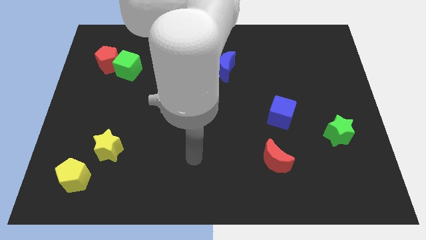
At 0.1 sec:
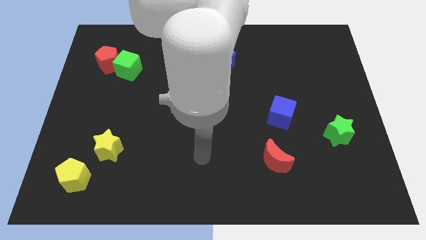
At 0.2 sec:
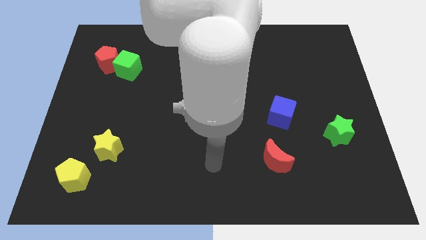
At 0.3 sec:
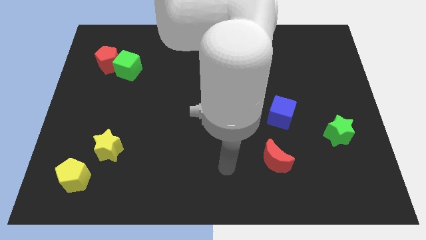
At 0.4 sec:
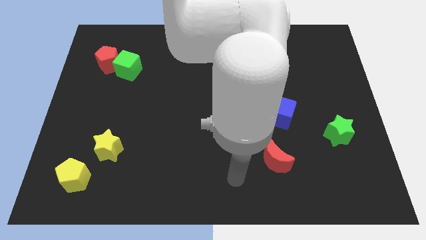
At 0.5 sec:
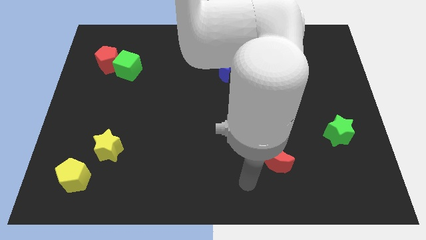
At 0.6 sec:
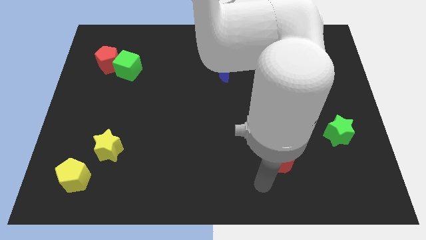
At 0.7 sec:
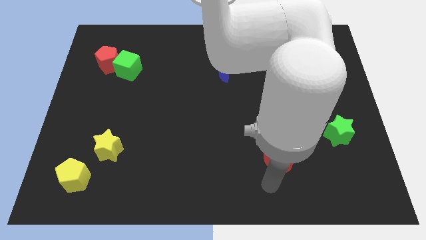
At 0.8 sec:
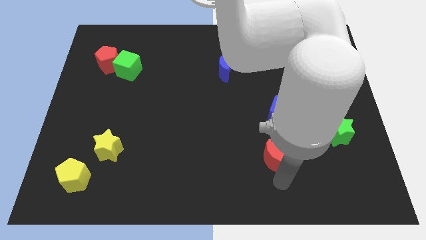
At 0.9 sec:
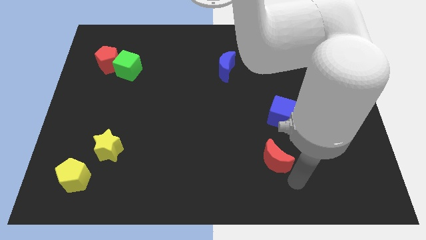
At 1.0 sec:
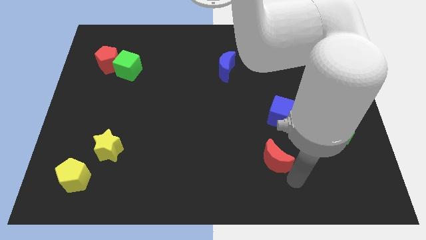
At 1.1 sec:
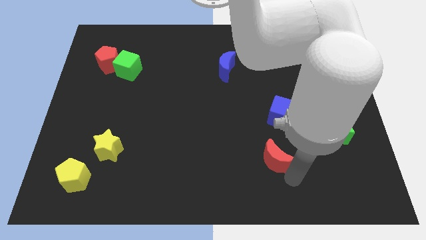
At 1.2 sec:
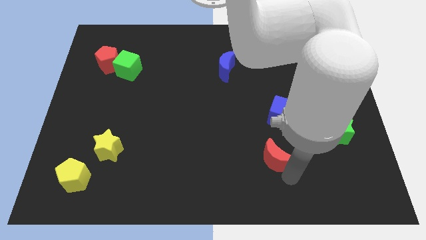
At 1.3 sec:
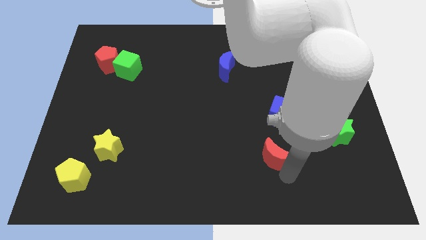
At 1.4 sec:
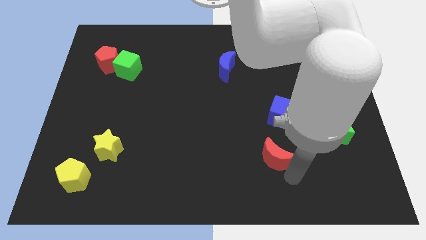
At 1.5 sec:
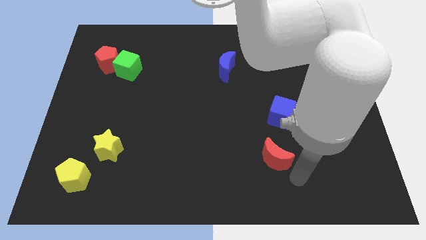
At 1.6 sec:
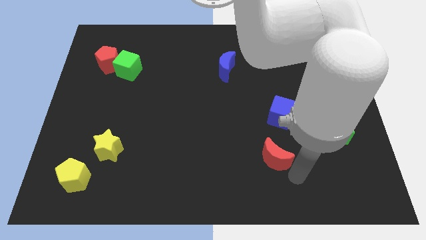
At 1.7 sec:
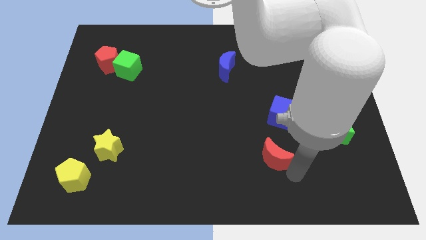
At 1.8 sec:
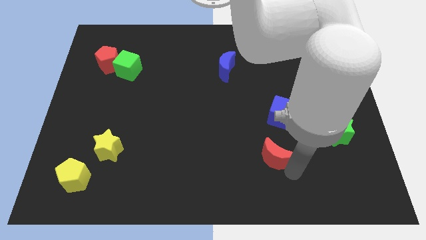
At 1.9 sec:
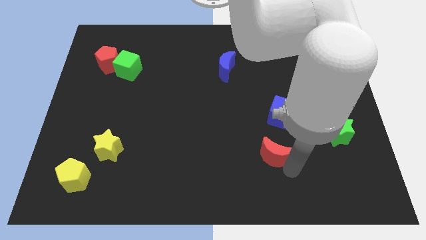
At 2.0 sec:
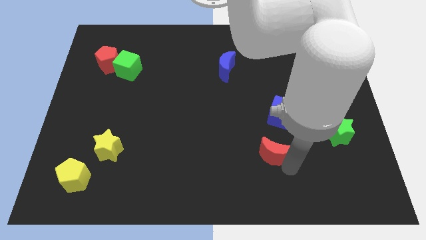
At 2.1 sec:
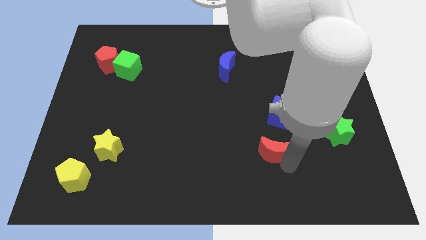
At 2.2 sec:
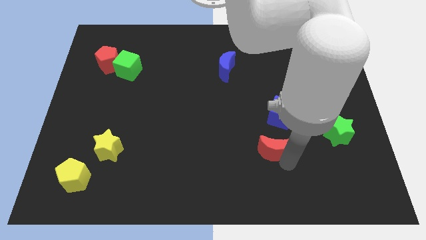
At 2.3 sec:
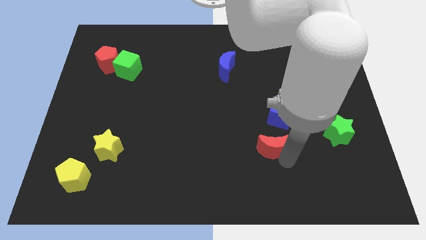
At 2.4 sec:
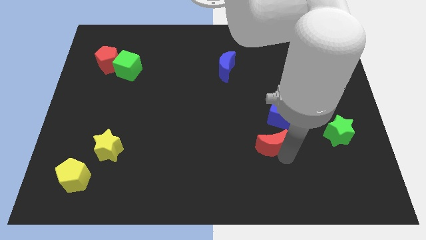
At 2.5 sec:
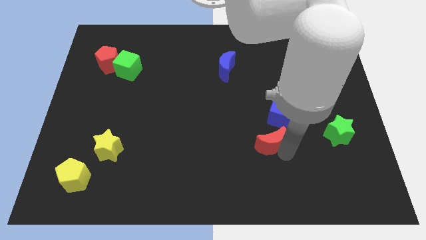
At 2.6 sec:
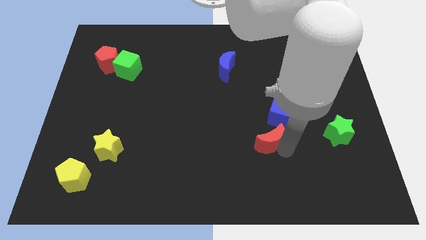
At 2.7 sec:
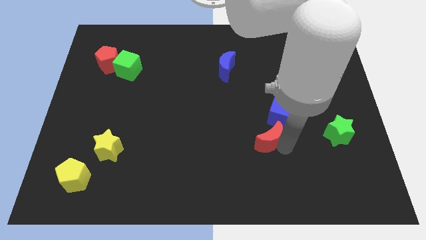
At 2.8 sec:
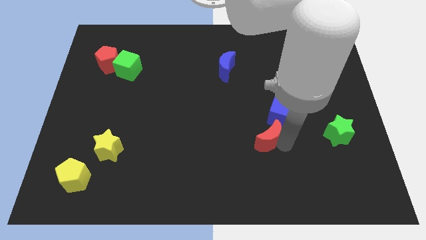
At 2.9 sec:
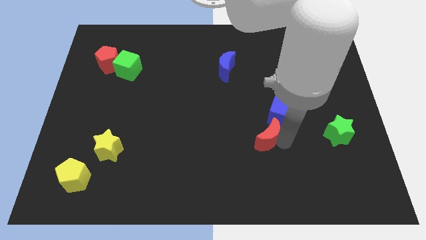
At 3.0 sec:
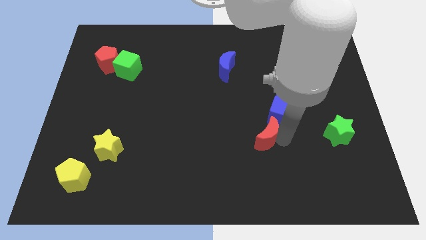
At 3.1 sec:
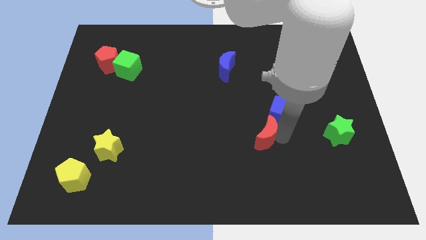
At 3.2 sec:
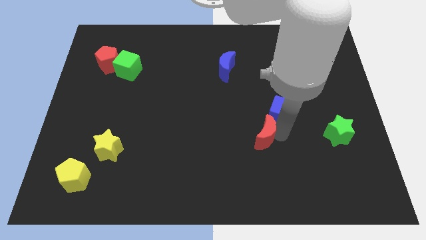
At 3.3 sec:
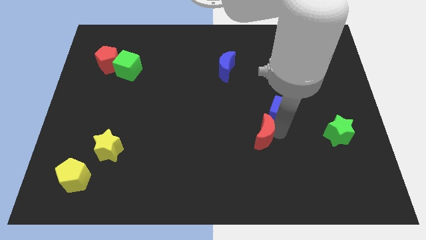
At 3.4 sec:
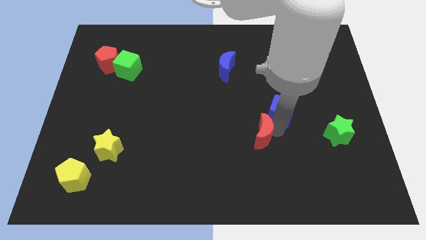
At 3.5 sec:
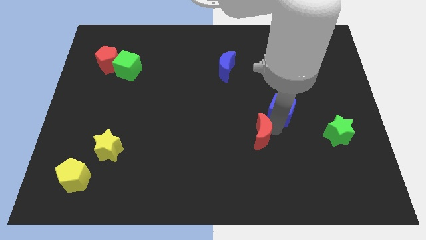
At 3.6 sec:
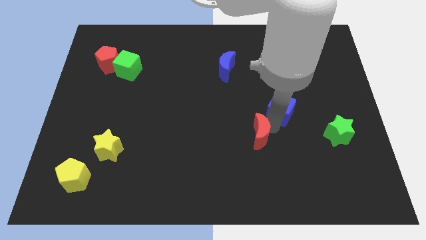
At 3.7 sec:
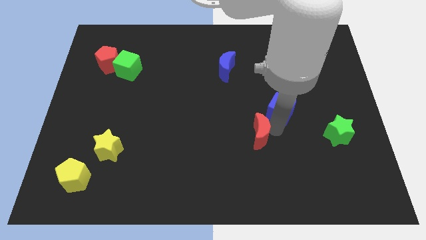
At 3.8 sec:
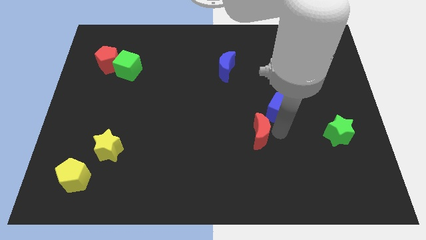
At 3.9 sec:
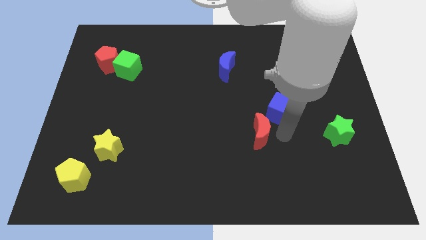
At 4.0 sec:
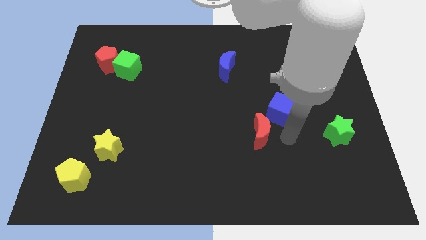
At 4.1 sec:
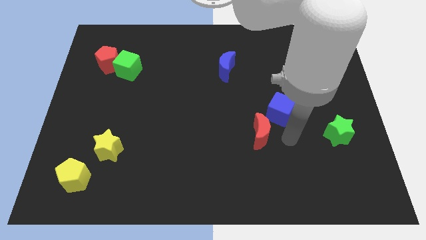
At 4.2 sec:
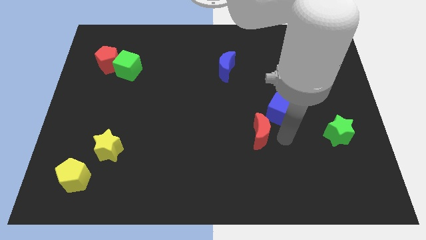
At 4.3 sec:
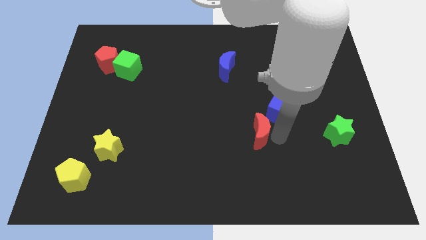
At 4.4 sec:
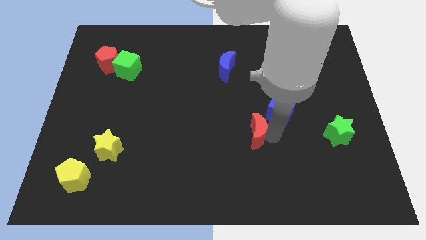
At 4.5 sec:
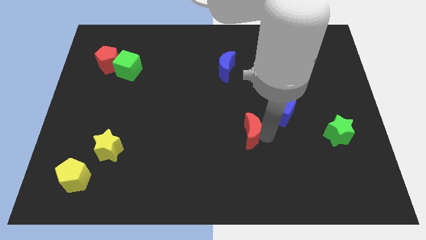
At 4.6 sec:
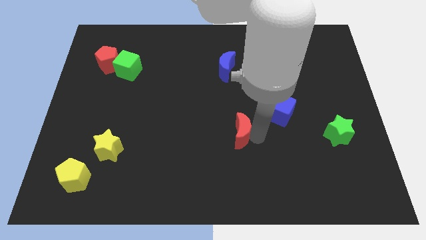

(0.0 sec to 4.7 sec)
push the red moon to the center of the board

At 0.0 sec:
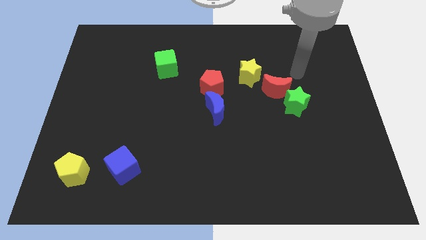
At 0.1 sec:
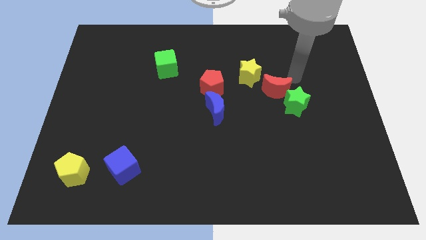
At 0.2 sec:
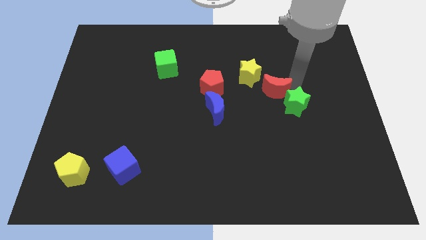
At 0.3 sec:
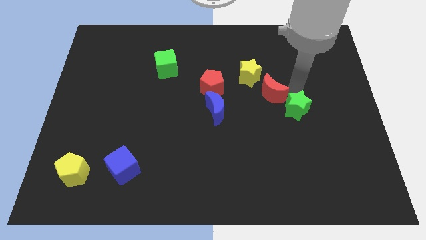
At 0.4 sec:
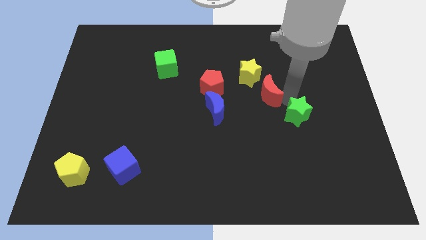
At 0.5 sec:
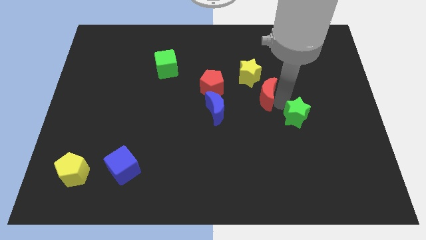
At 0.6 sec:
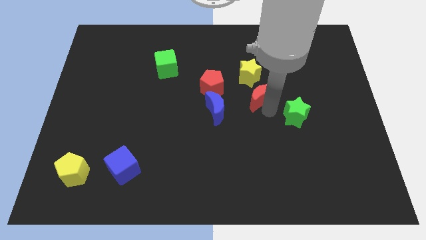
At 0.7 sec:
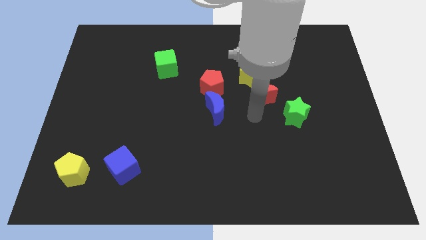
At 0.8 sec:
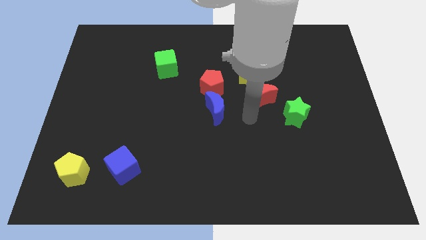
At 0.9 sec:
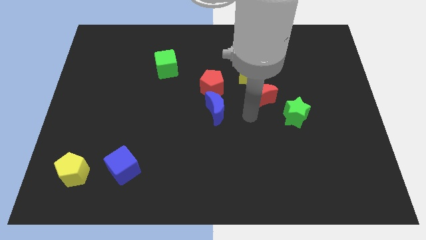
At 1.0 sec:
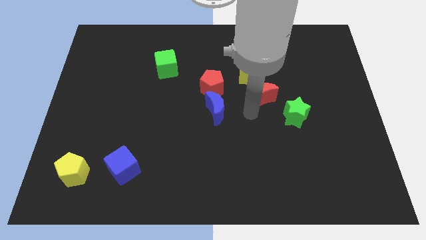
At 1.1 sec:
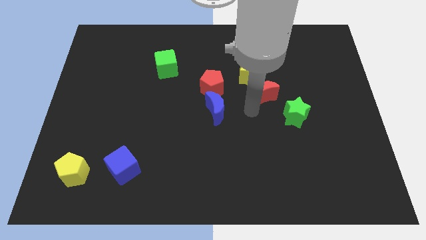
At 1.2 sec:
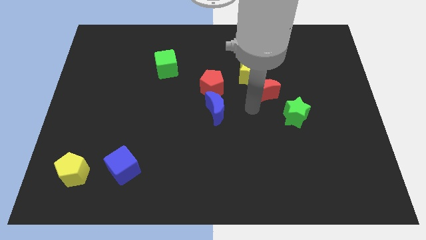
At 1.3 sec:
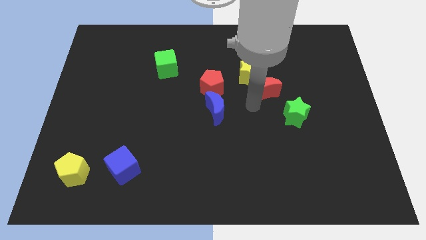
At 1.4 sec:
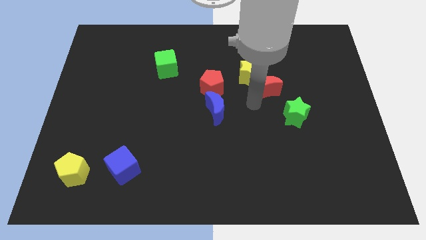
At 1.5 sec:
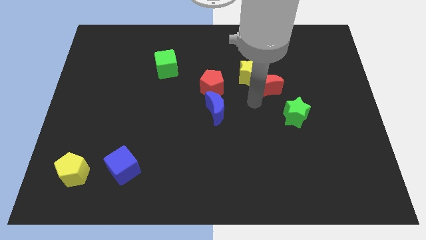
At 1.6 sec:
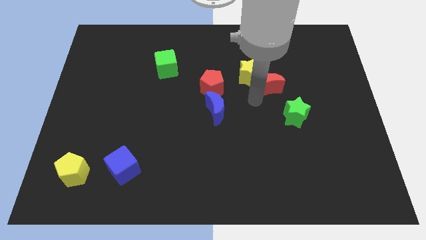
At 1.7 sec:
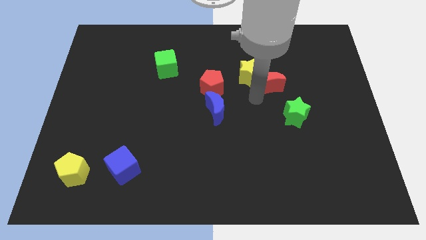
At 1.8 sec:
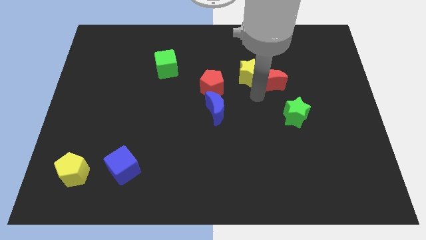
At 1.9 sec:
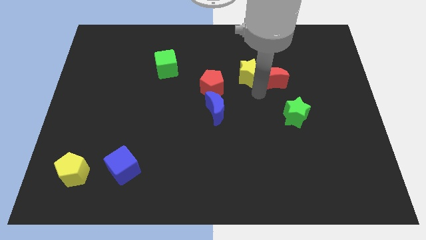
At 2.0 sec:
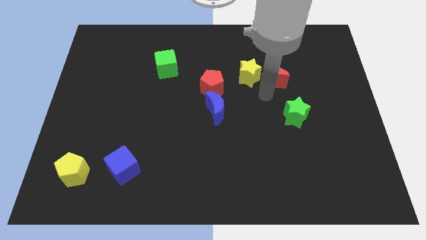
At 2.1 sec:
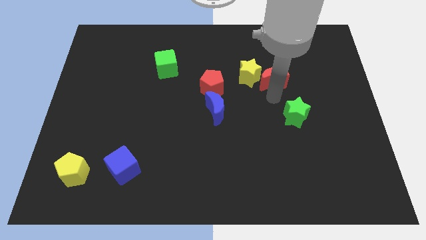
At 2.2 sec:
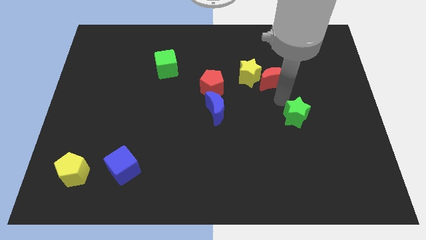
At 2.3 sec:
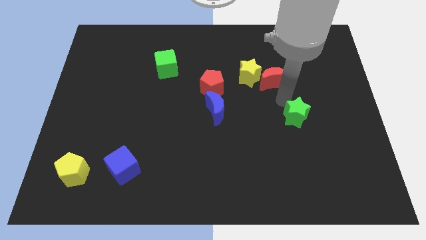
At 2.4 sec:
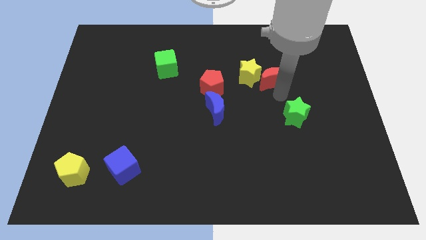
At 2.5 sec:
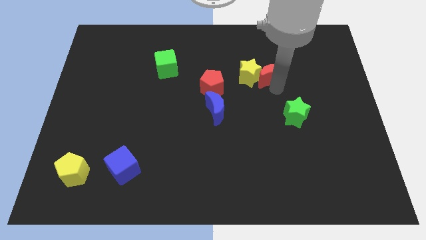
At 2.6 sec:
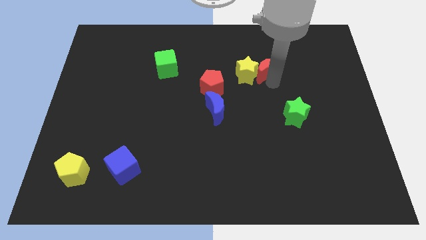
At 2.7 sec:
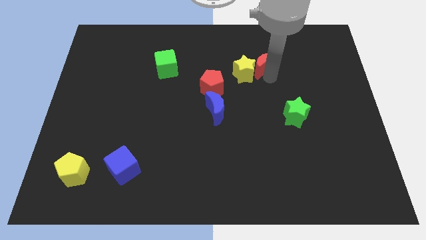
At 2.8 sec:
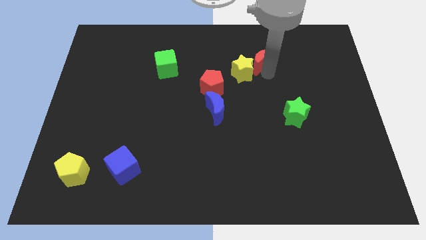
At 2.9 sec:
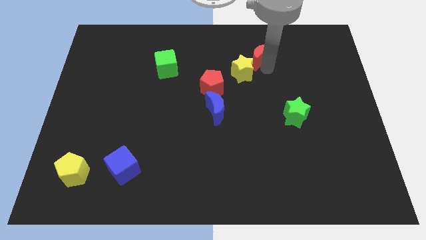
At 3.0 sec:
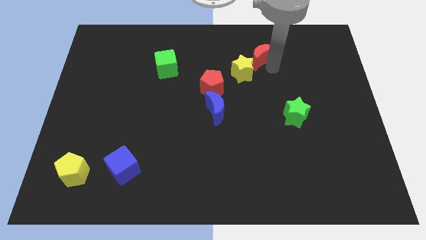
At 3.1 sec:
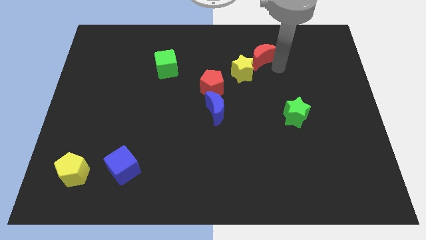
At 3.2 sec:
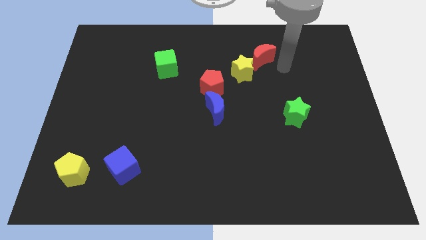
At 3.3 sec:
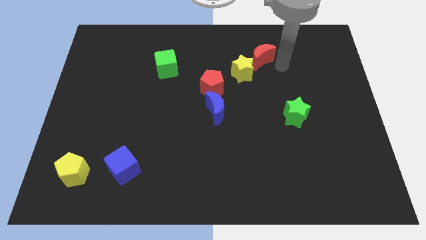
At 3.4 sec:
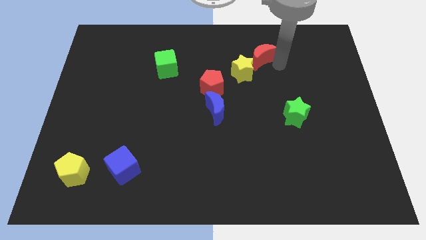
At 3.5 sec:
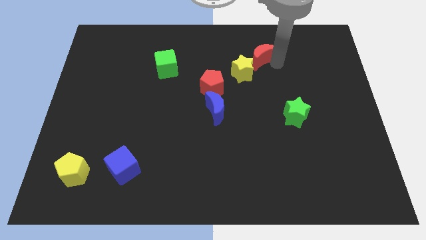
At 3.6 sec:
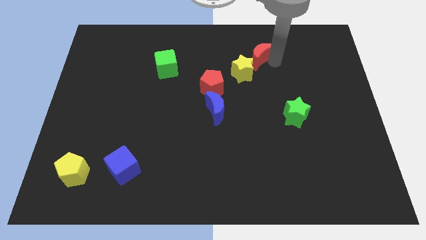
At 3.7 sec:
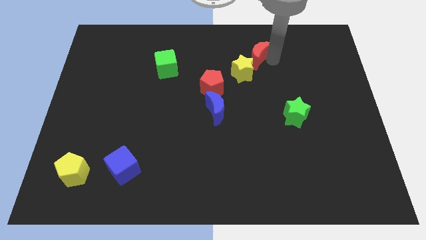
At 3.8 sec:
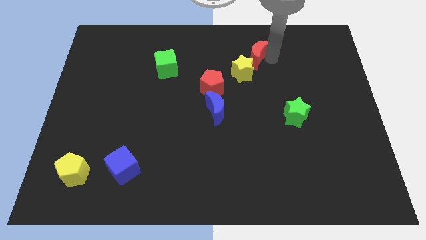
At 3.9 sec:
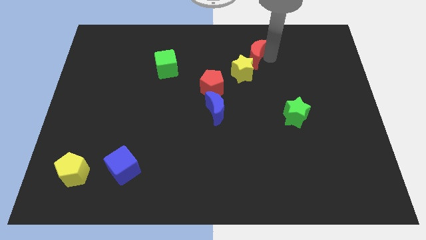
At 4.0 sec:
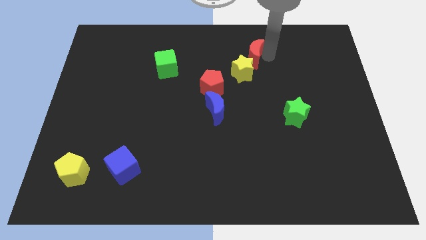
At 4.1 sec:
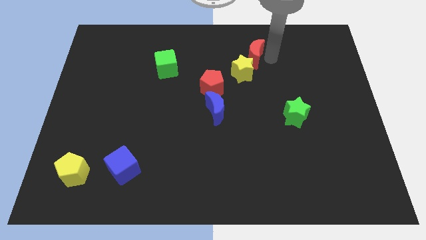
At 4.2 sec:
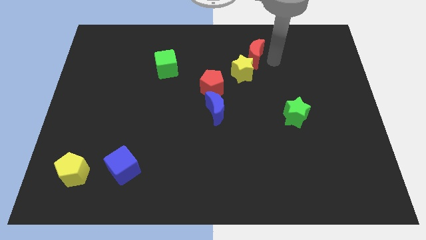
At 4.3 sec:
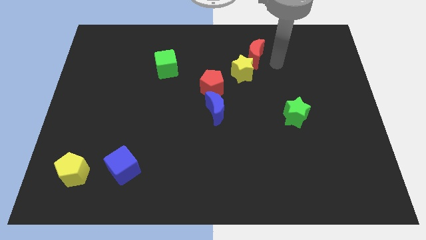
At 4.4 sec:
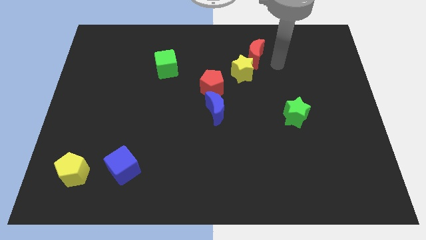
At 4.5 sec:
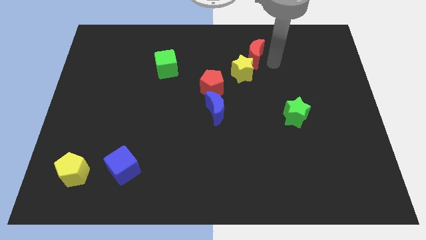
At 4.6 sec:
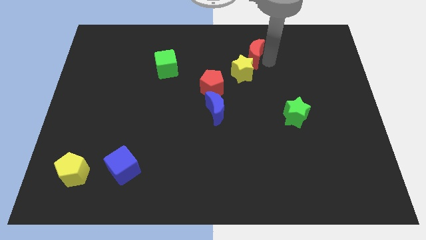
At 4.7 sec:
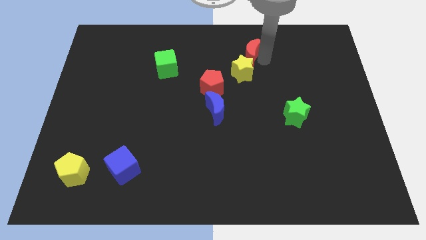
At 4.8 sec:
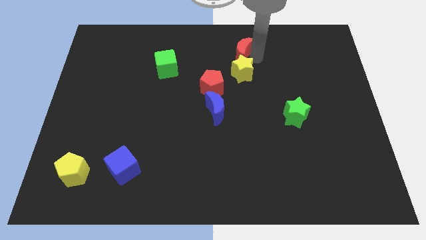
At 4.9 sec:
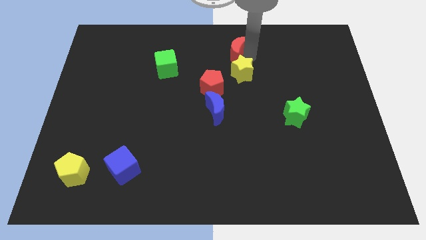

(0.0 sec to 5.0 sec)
push the red moon to the towards your base
